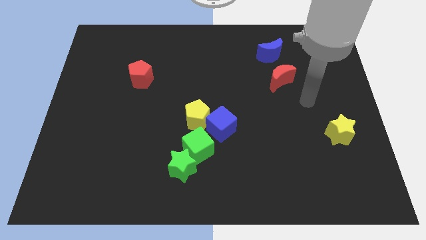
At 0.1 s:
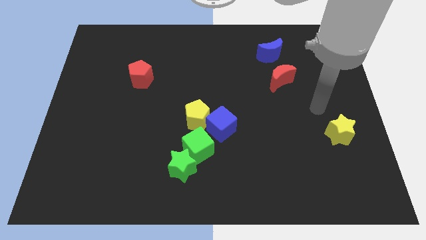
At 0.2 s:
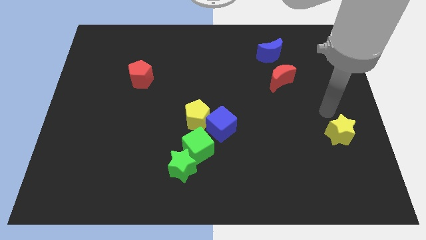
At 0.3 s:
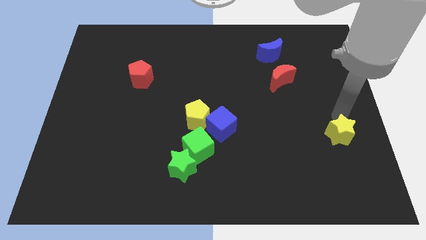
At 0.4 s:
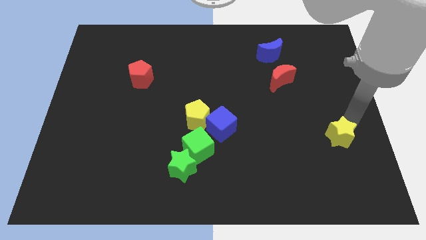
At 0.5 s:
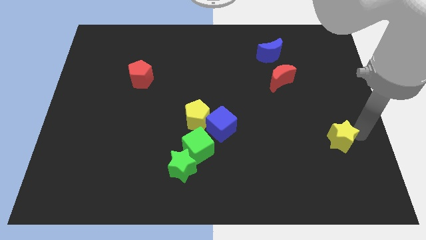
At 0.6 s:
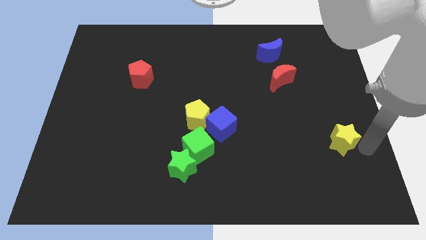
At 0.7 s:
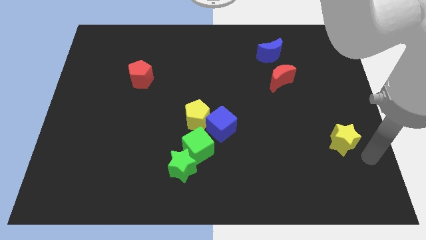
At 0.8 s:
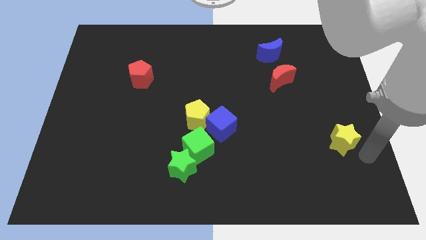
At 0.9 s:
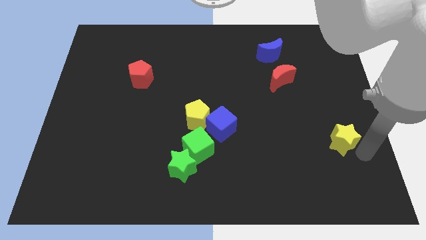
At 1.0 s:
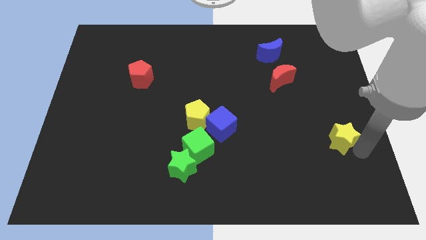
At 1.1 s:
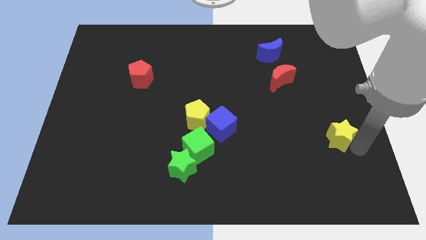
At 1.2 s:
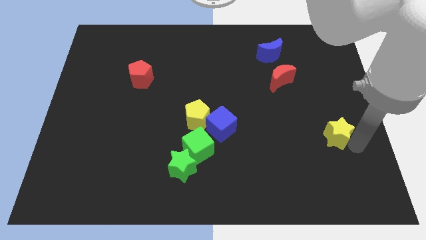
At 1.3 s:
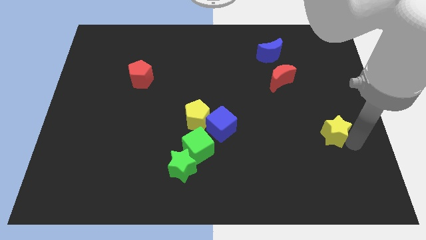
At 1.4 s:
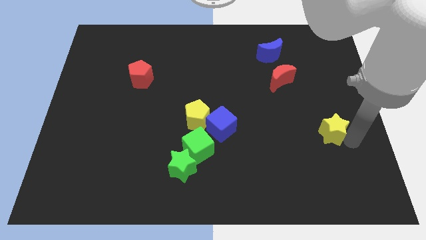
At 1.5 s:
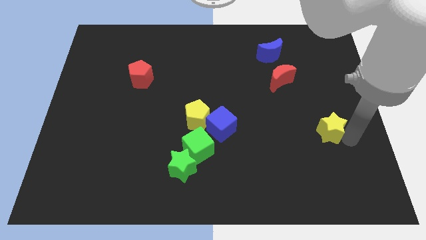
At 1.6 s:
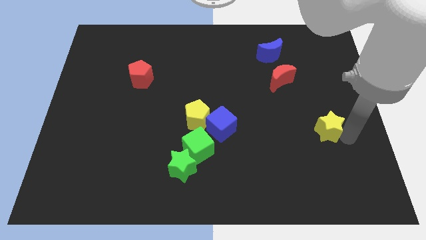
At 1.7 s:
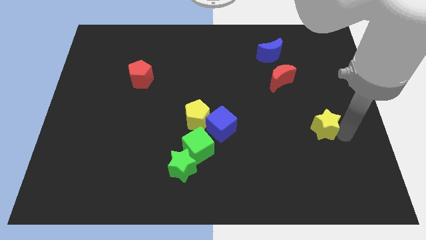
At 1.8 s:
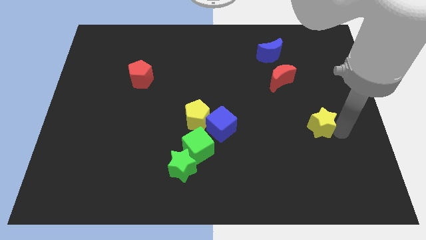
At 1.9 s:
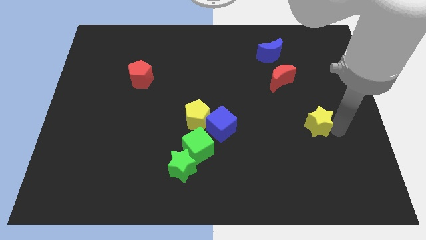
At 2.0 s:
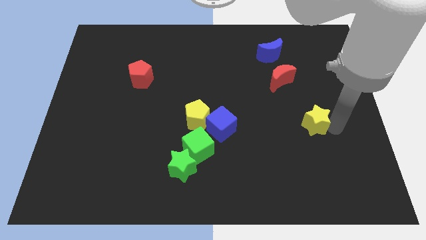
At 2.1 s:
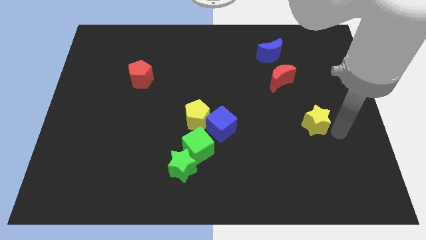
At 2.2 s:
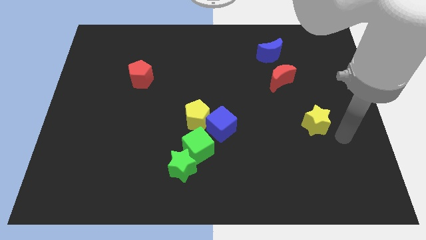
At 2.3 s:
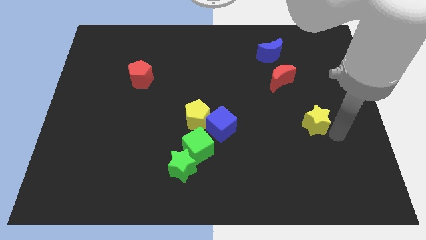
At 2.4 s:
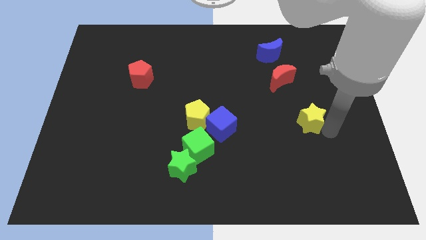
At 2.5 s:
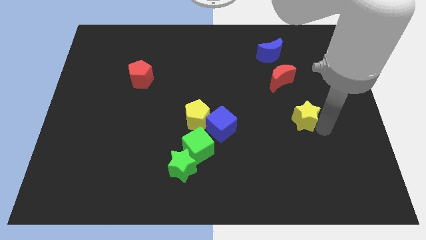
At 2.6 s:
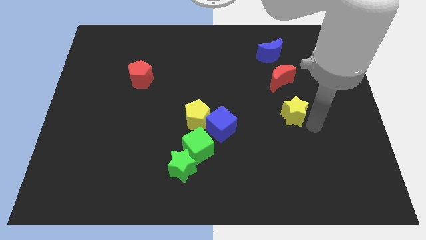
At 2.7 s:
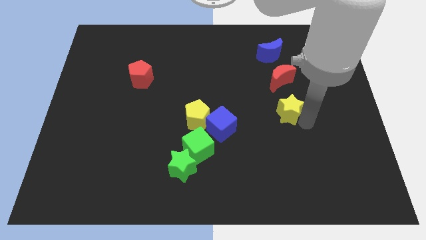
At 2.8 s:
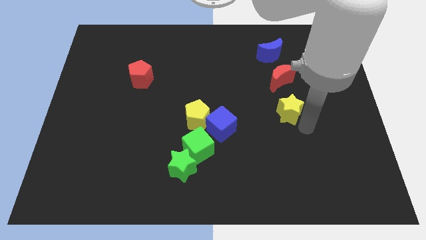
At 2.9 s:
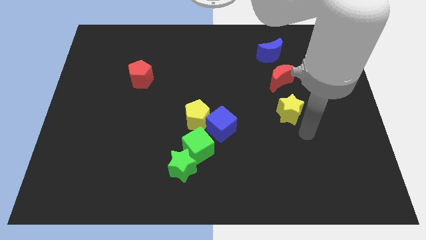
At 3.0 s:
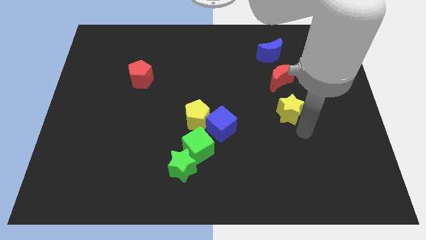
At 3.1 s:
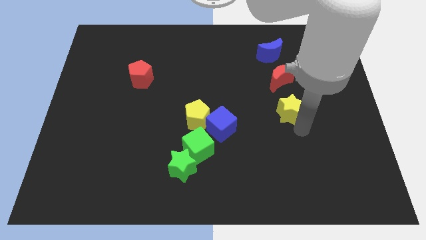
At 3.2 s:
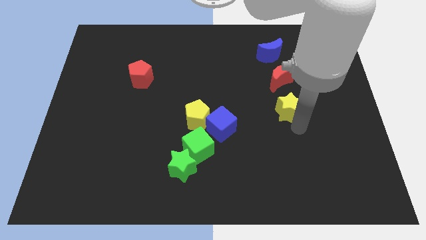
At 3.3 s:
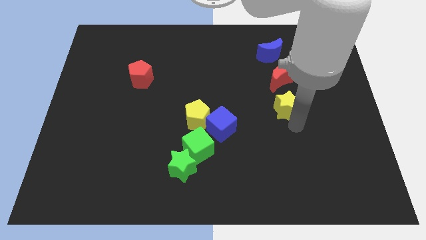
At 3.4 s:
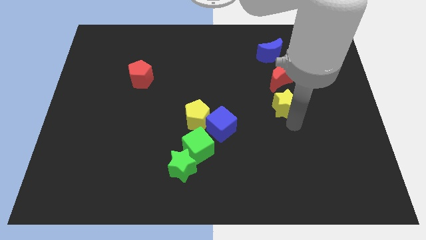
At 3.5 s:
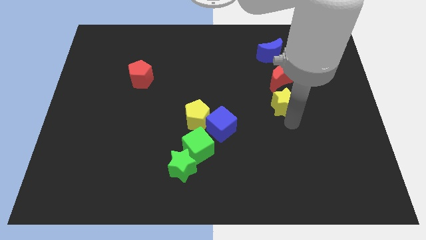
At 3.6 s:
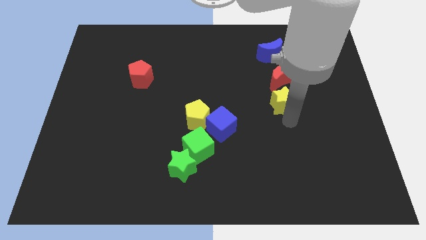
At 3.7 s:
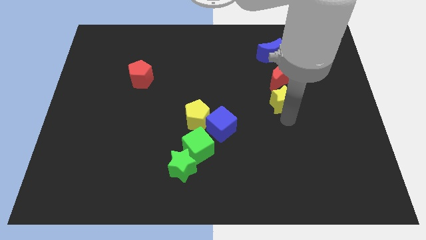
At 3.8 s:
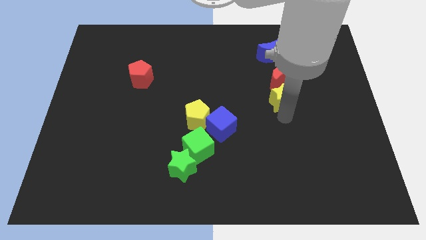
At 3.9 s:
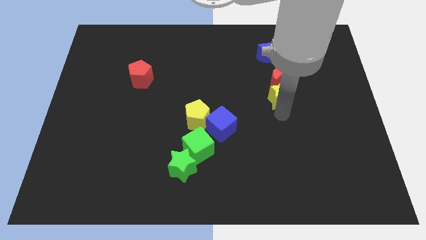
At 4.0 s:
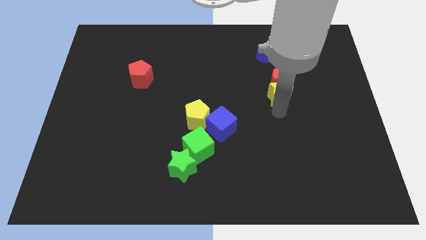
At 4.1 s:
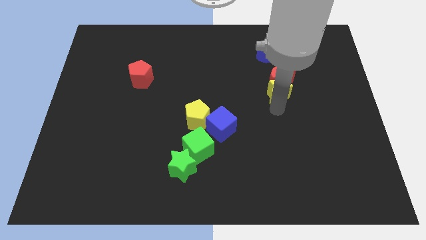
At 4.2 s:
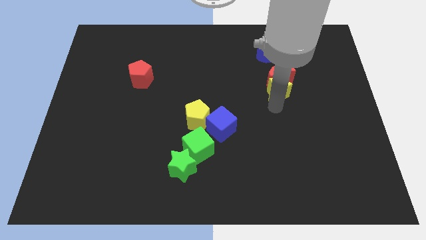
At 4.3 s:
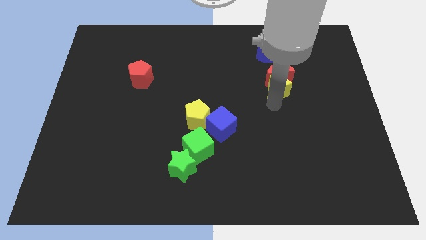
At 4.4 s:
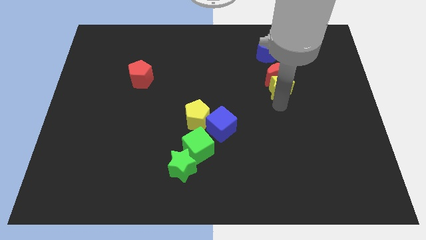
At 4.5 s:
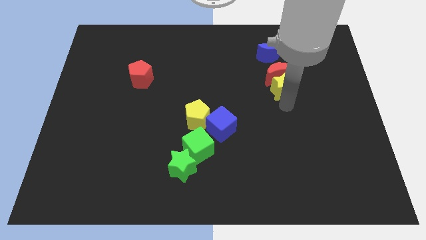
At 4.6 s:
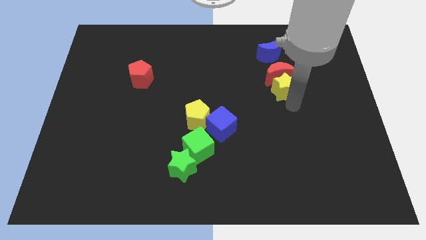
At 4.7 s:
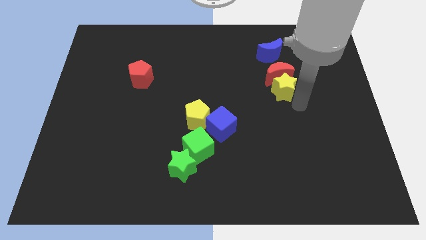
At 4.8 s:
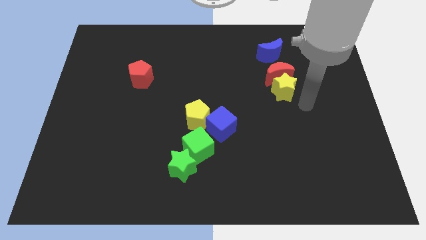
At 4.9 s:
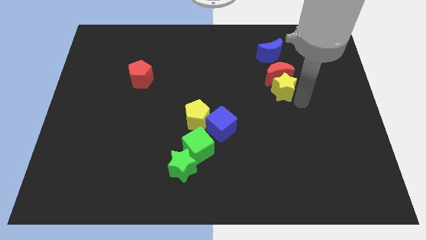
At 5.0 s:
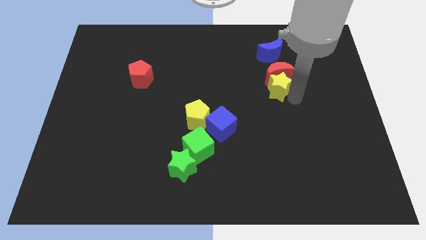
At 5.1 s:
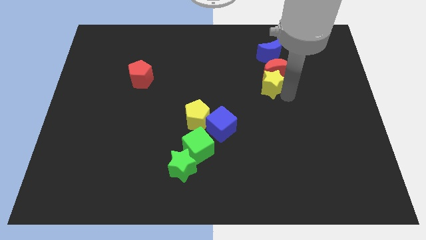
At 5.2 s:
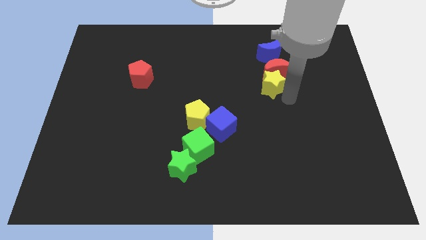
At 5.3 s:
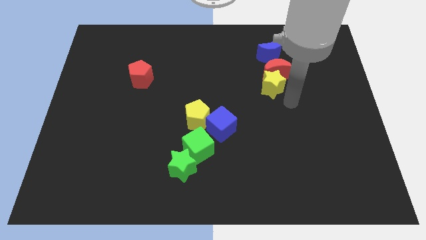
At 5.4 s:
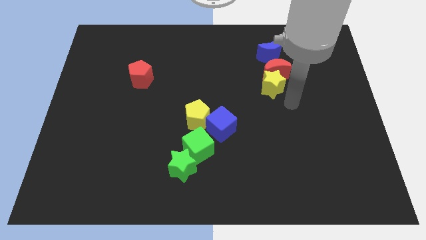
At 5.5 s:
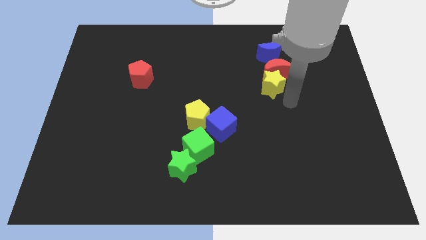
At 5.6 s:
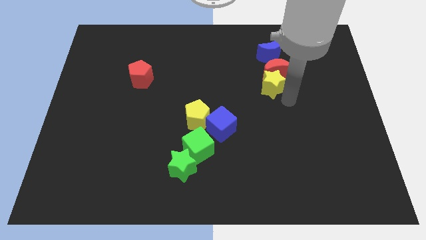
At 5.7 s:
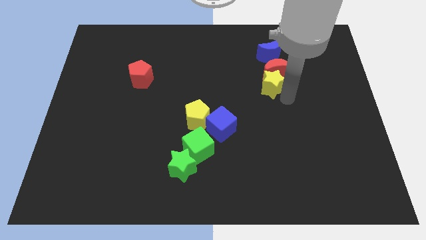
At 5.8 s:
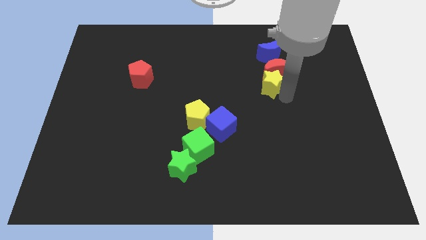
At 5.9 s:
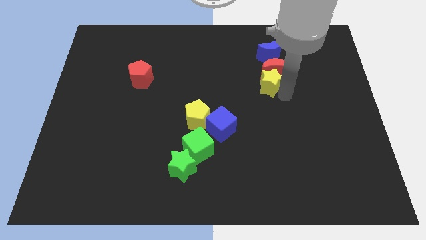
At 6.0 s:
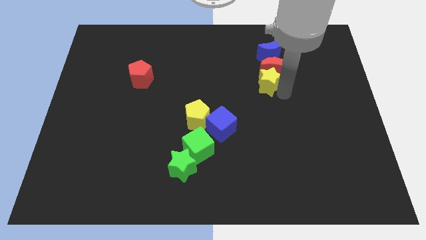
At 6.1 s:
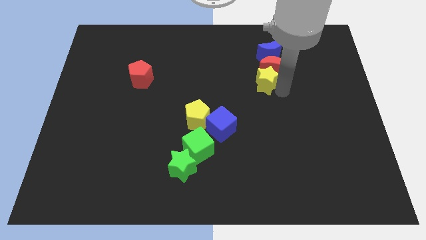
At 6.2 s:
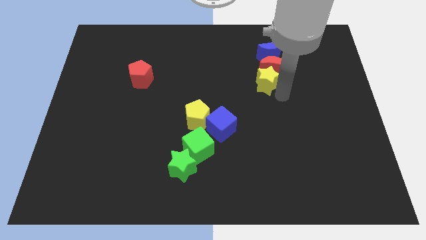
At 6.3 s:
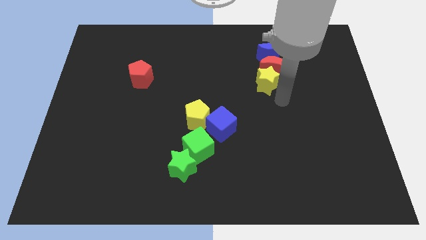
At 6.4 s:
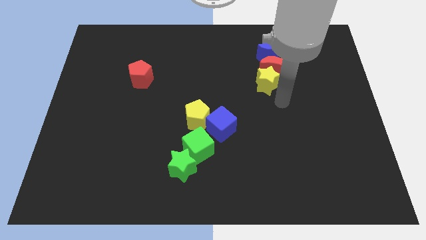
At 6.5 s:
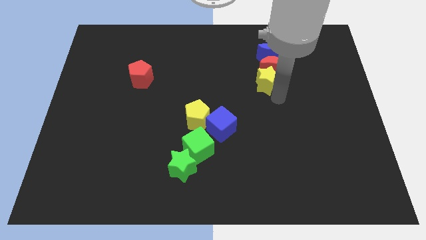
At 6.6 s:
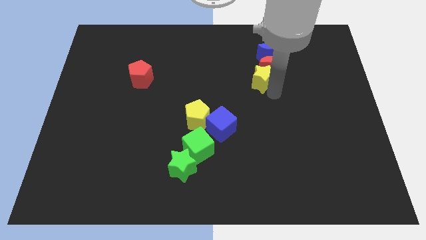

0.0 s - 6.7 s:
move the yellow star diagonally down and to the left of the blue moon
